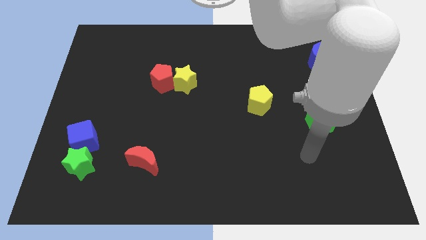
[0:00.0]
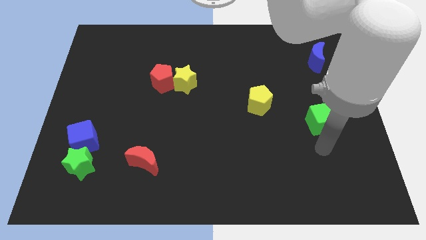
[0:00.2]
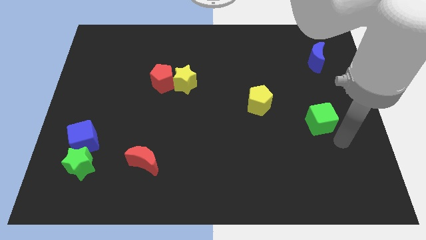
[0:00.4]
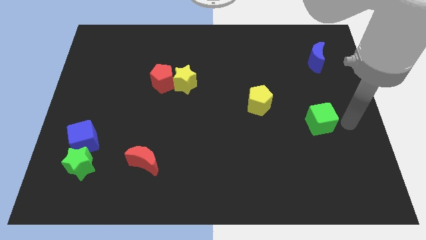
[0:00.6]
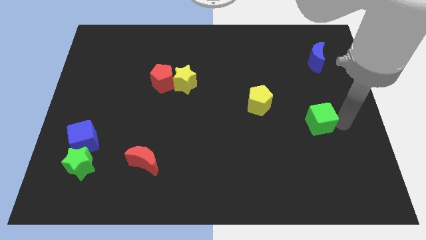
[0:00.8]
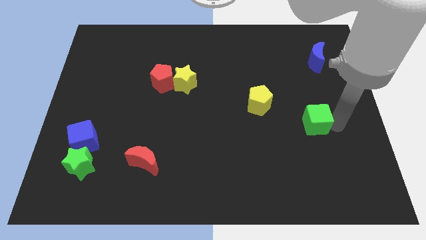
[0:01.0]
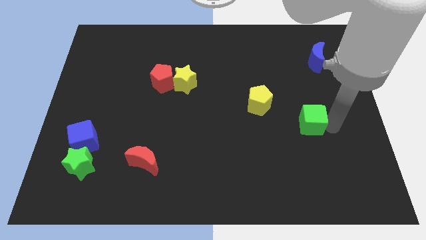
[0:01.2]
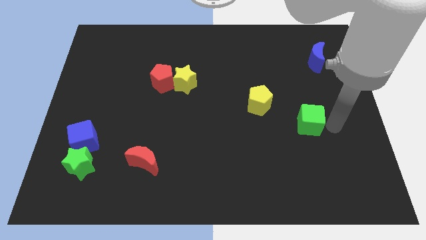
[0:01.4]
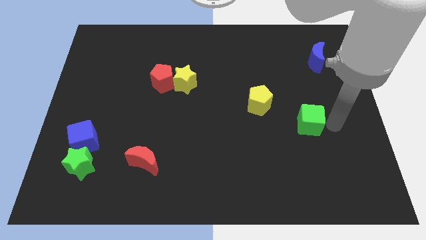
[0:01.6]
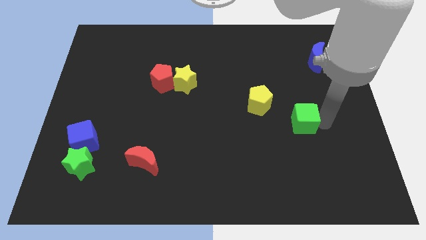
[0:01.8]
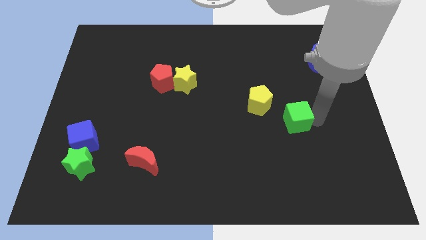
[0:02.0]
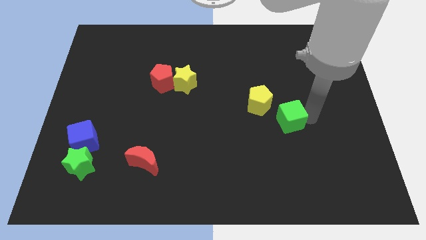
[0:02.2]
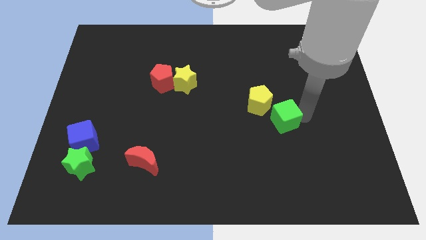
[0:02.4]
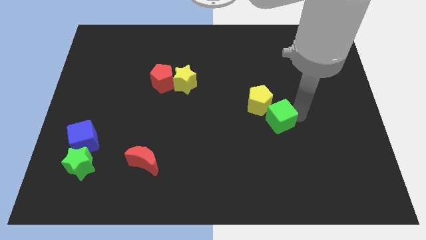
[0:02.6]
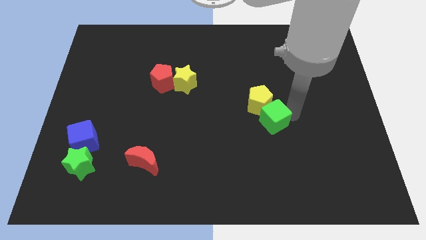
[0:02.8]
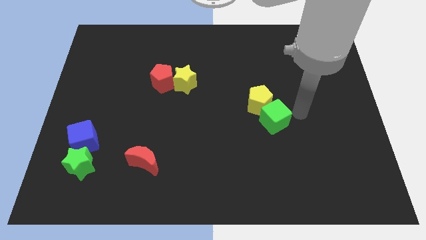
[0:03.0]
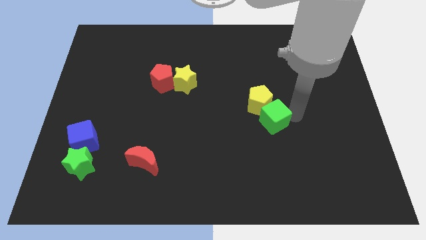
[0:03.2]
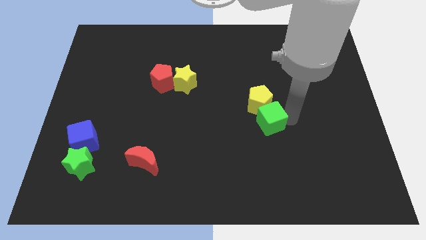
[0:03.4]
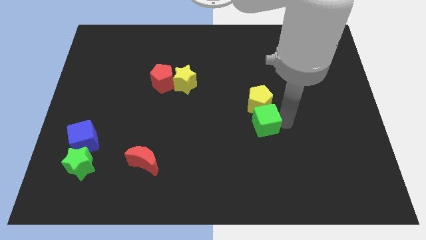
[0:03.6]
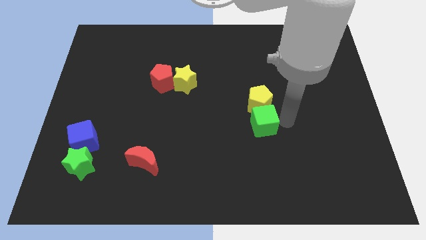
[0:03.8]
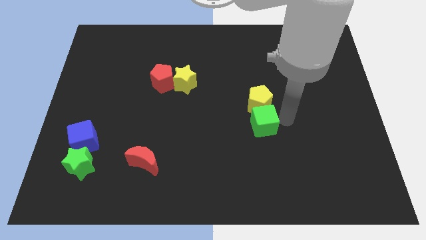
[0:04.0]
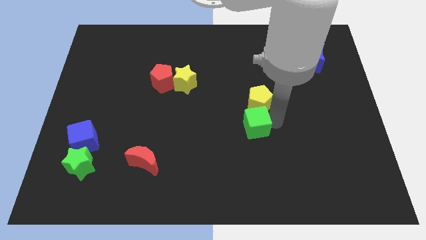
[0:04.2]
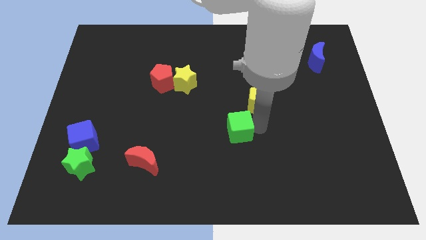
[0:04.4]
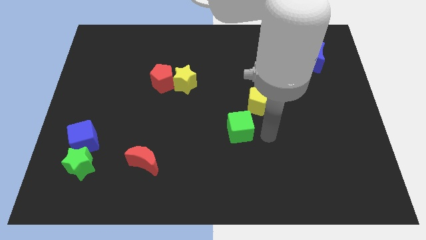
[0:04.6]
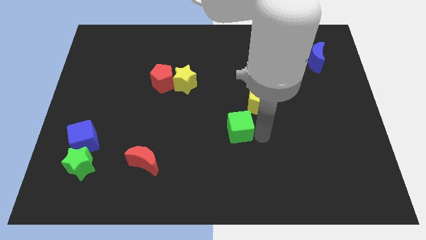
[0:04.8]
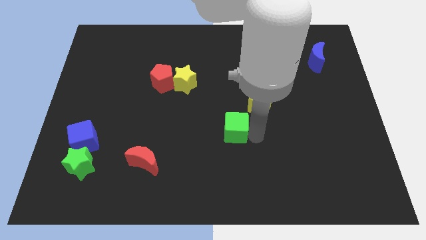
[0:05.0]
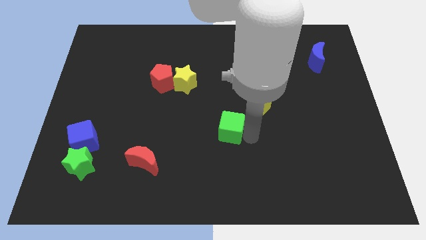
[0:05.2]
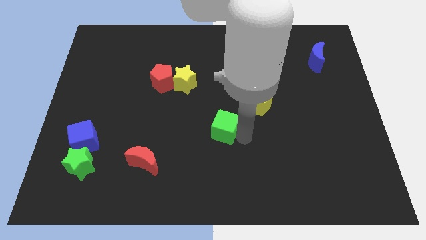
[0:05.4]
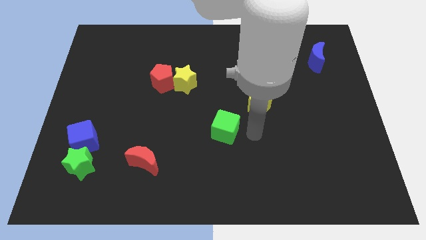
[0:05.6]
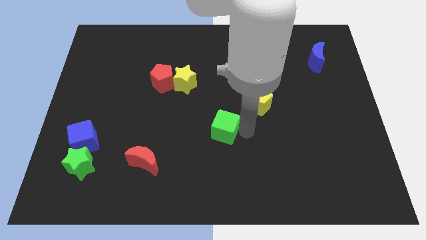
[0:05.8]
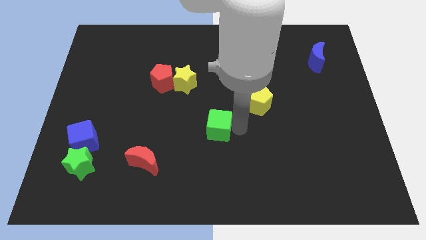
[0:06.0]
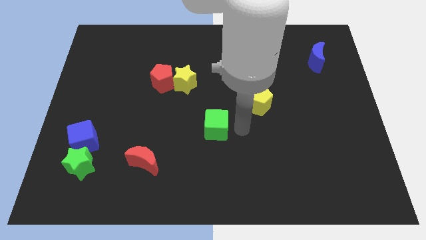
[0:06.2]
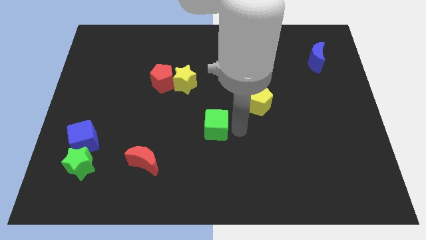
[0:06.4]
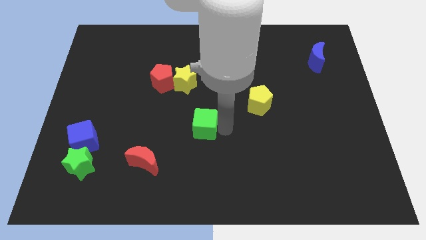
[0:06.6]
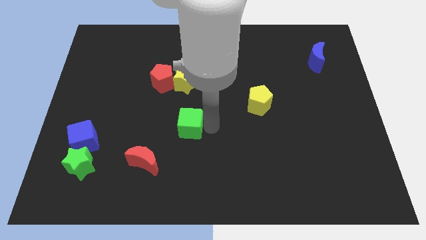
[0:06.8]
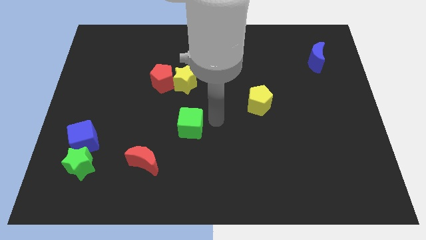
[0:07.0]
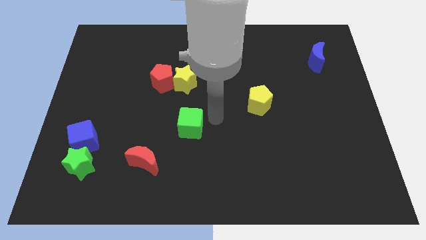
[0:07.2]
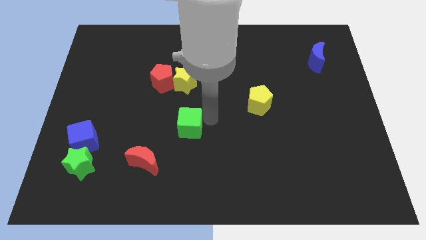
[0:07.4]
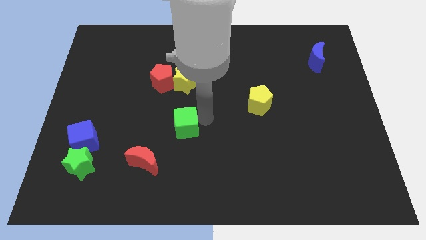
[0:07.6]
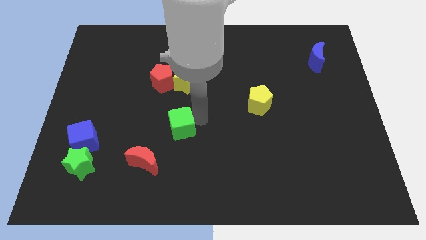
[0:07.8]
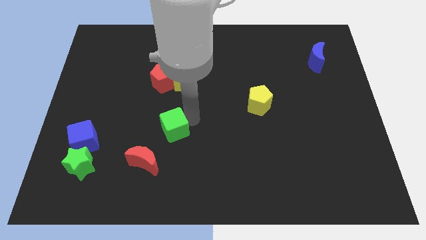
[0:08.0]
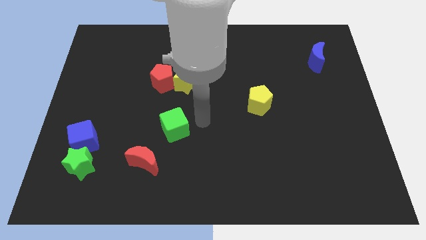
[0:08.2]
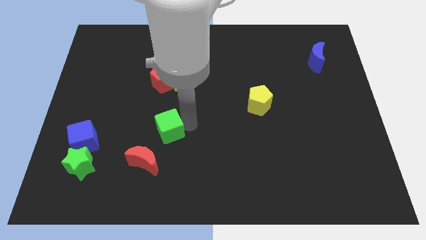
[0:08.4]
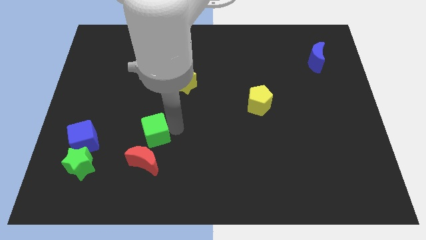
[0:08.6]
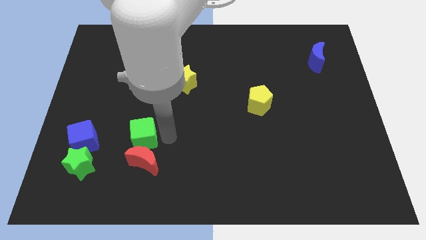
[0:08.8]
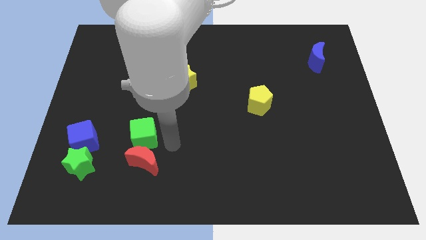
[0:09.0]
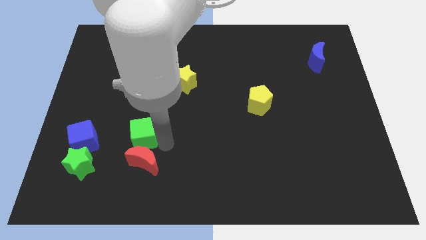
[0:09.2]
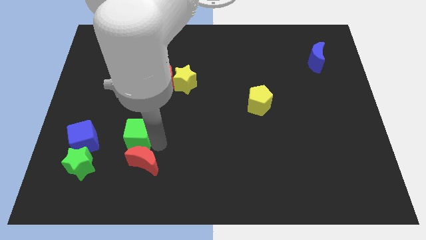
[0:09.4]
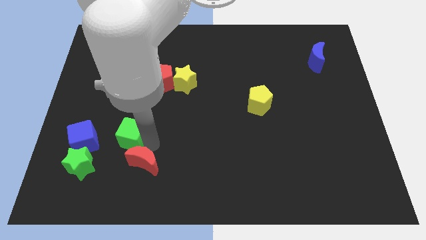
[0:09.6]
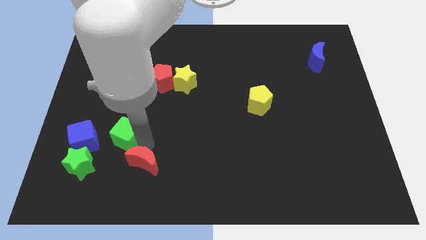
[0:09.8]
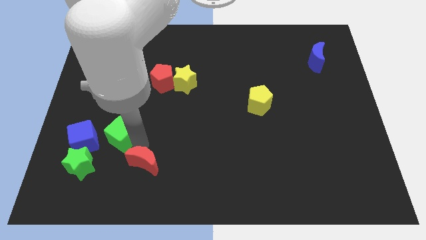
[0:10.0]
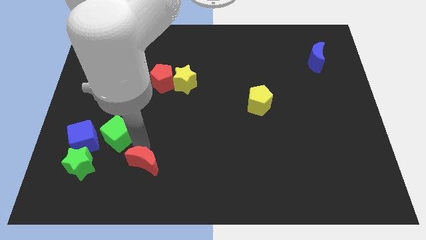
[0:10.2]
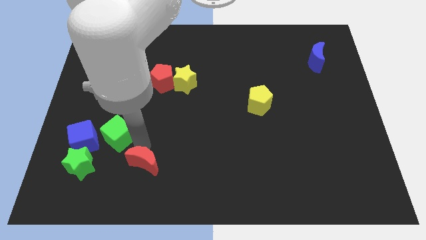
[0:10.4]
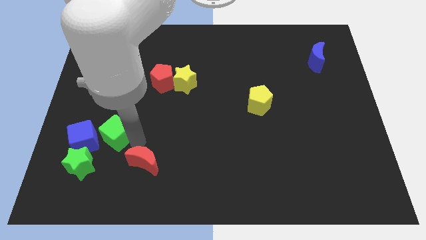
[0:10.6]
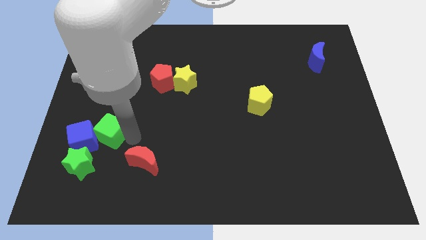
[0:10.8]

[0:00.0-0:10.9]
slide the green cube above the green star

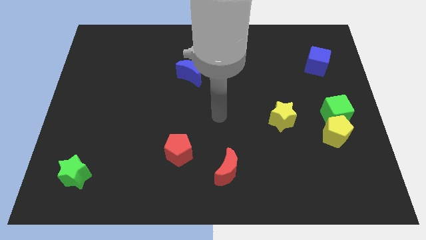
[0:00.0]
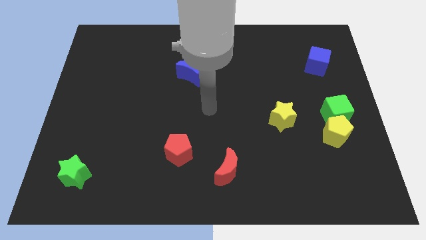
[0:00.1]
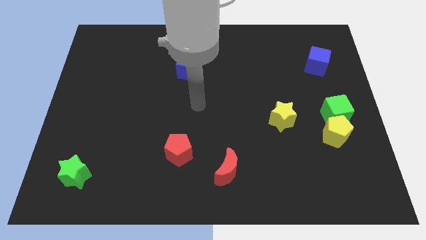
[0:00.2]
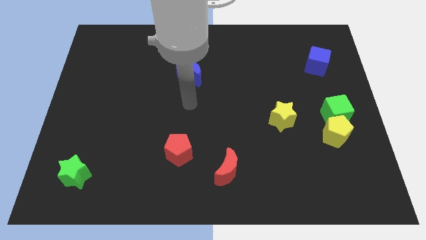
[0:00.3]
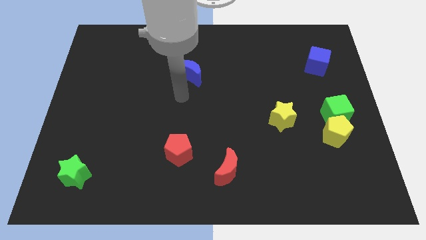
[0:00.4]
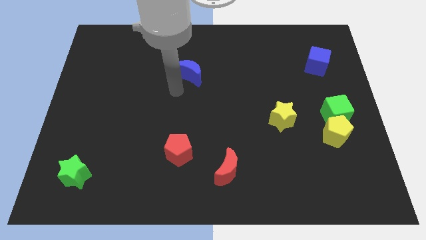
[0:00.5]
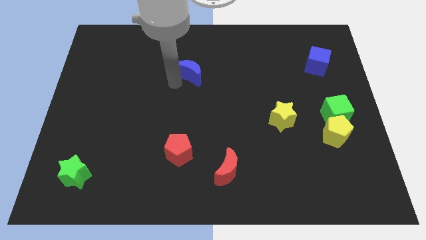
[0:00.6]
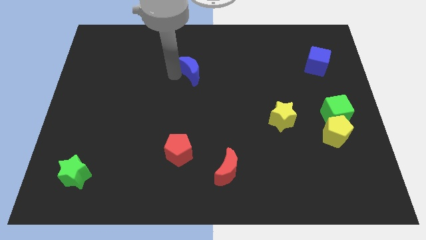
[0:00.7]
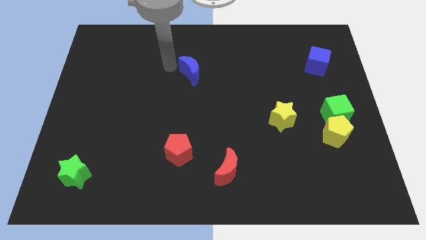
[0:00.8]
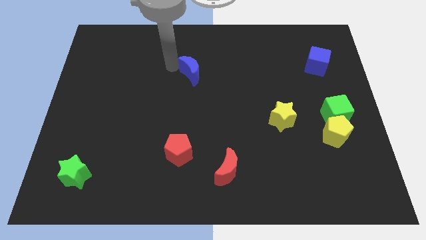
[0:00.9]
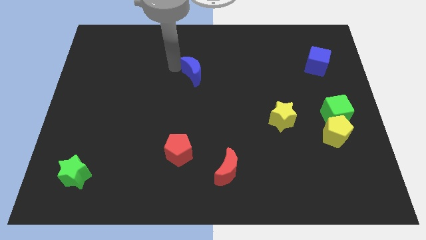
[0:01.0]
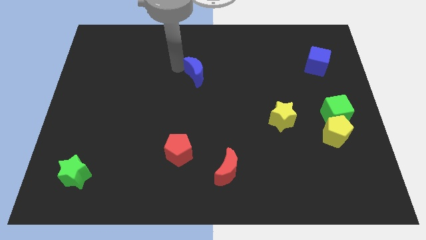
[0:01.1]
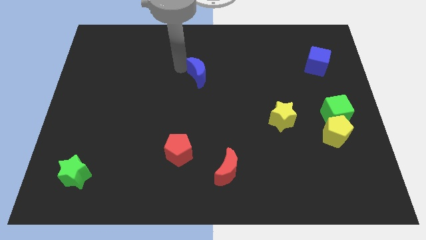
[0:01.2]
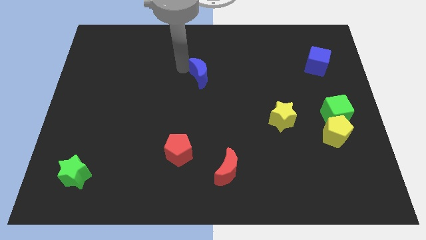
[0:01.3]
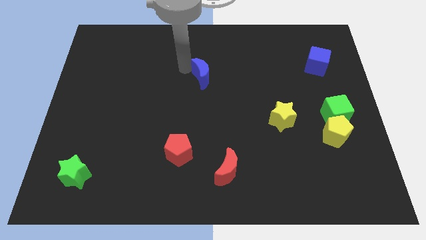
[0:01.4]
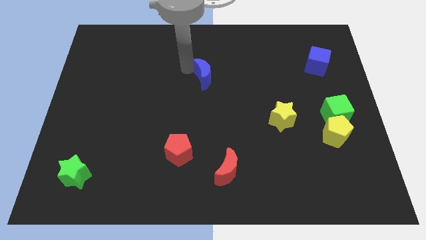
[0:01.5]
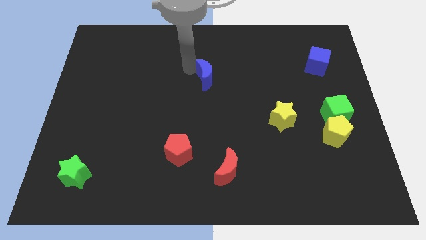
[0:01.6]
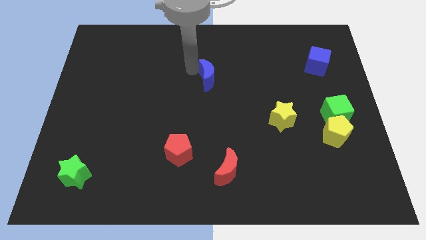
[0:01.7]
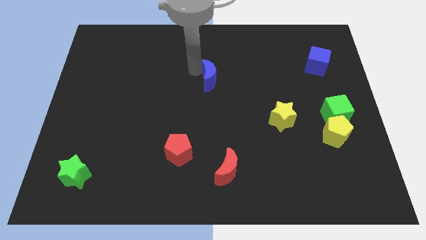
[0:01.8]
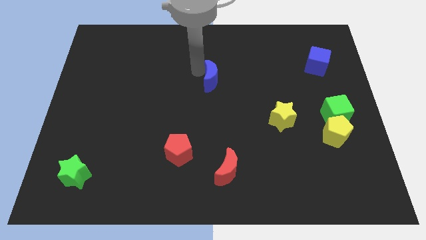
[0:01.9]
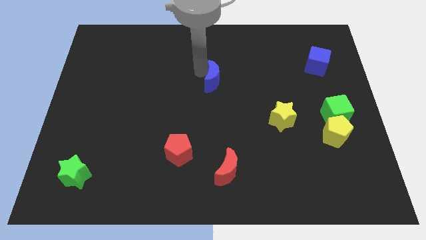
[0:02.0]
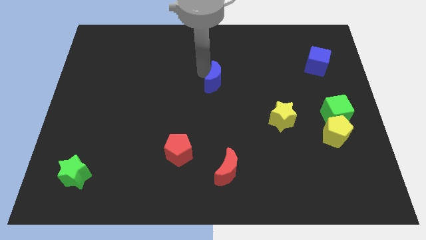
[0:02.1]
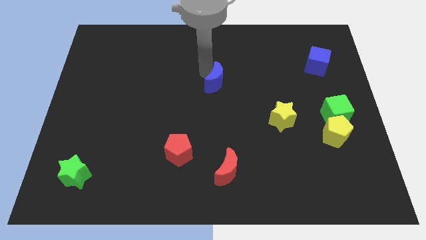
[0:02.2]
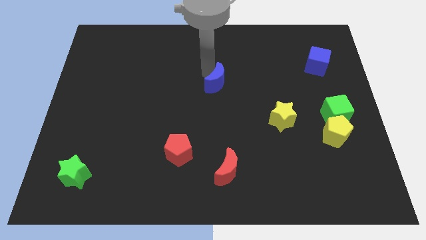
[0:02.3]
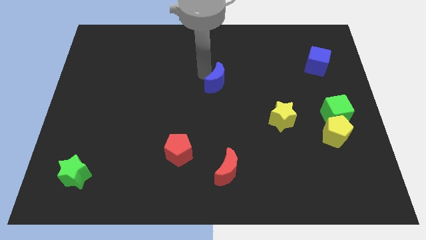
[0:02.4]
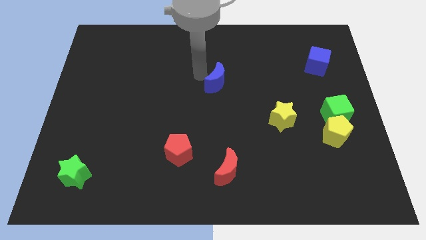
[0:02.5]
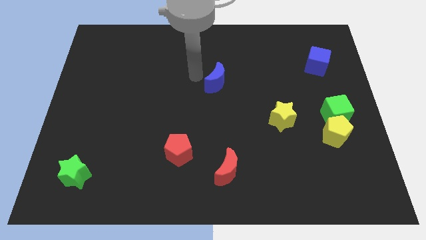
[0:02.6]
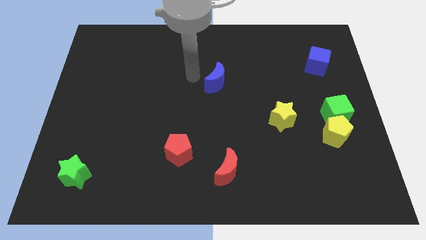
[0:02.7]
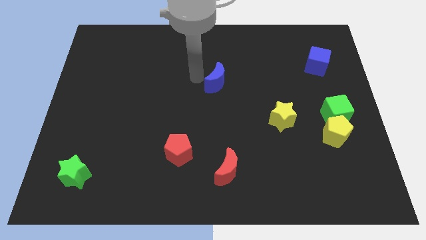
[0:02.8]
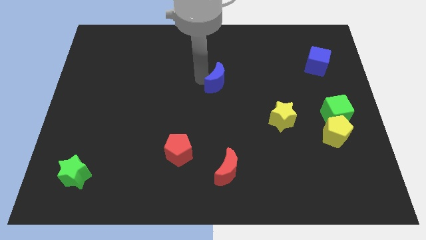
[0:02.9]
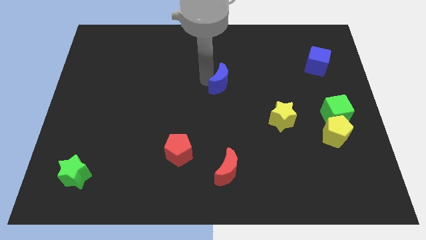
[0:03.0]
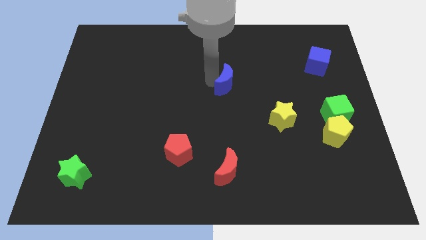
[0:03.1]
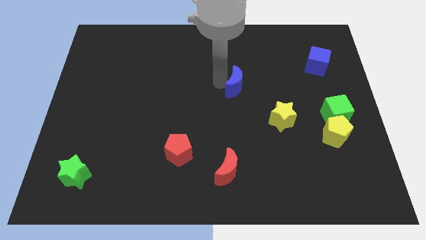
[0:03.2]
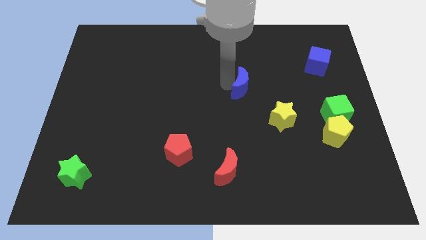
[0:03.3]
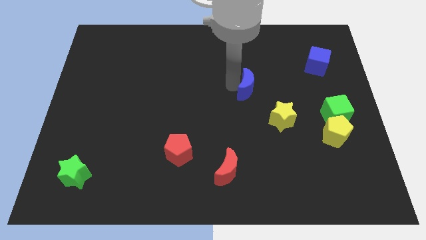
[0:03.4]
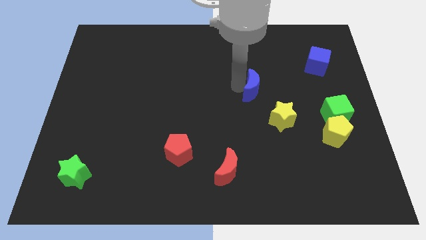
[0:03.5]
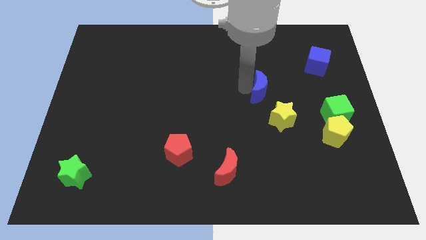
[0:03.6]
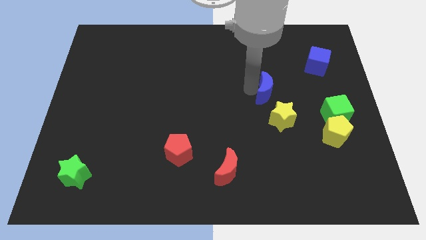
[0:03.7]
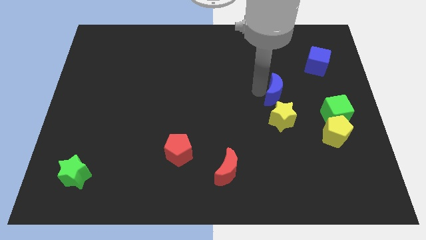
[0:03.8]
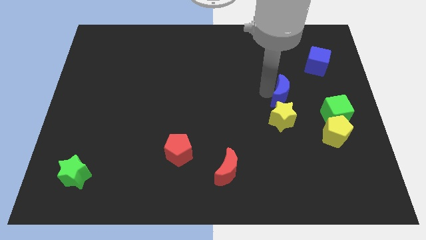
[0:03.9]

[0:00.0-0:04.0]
put the blue moon to the top right of the yellow star
